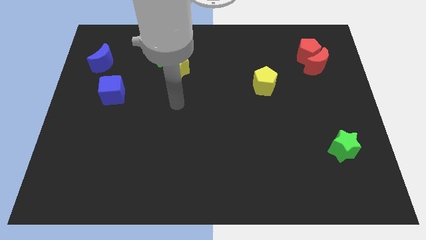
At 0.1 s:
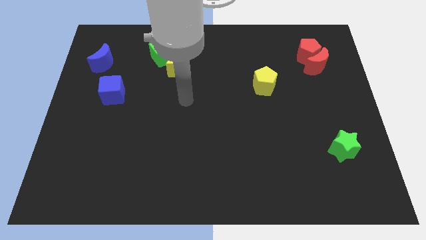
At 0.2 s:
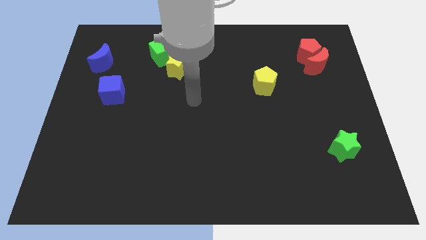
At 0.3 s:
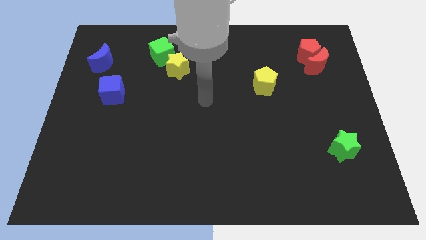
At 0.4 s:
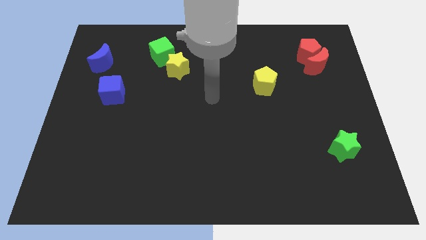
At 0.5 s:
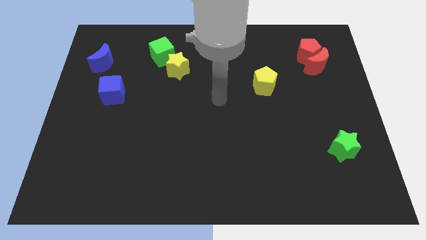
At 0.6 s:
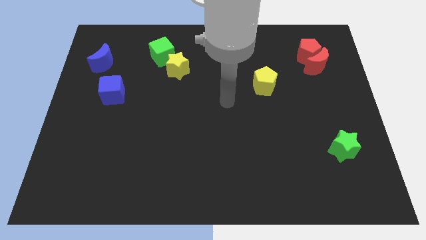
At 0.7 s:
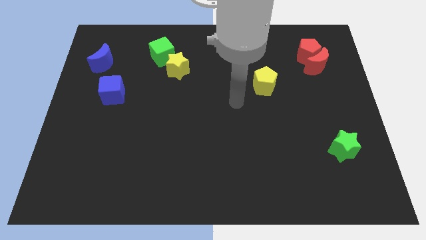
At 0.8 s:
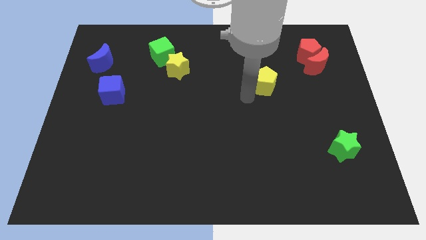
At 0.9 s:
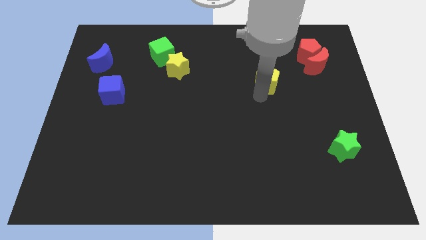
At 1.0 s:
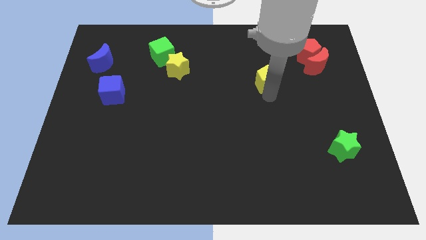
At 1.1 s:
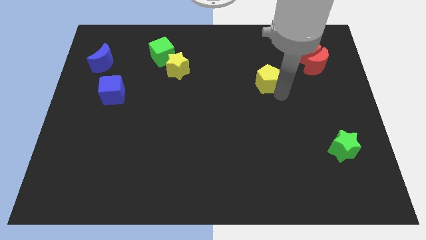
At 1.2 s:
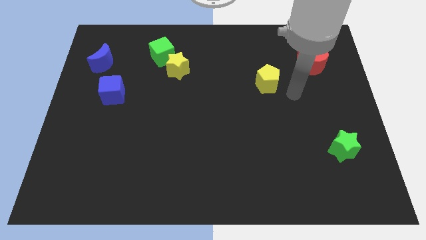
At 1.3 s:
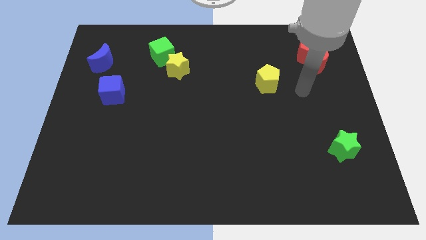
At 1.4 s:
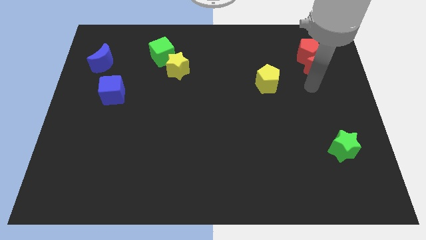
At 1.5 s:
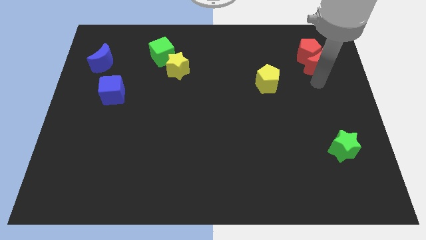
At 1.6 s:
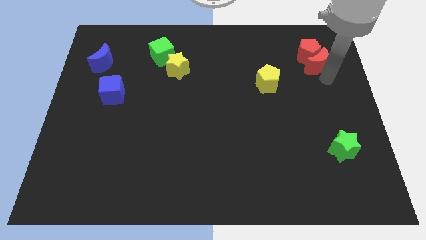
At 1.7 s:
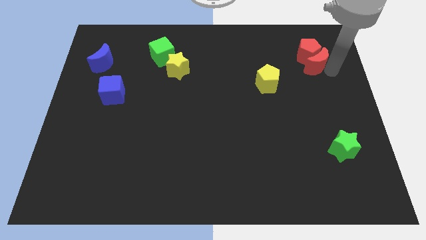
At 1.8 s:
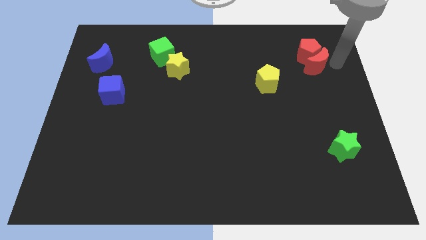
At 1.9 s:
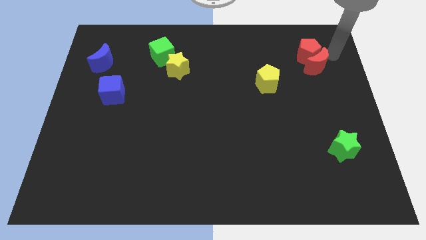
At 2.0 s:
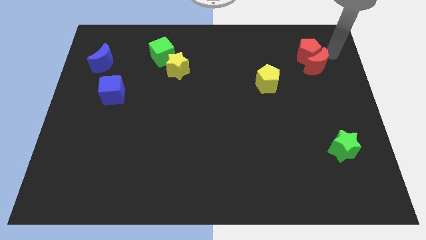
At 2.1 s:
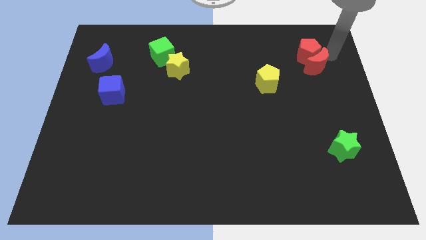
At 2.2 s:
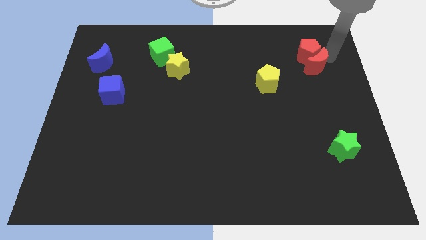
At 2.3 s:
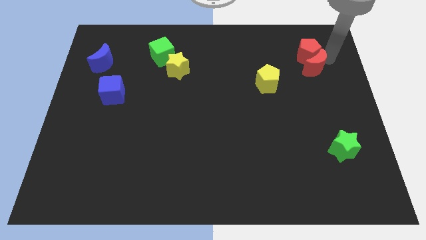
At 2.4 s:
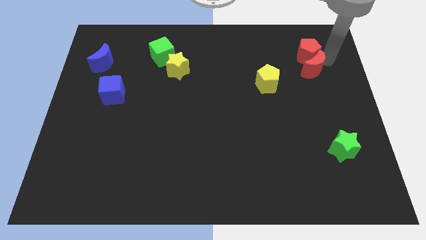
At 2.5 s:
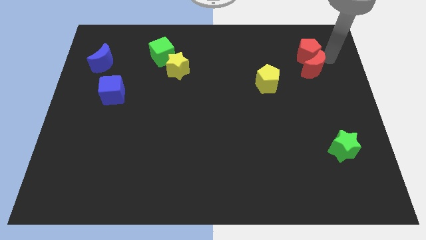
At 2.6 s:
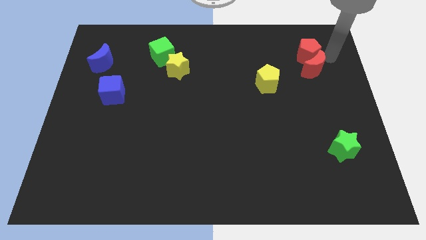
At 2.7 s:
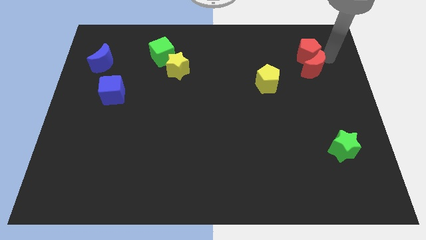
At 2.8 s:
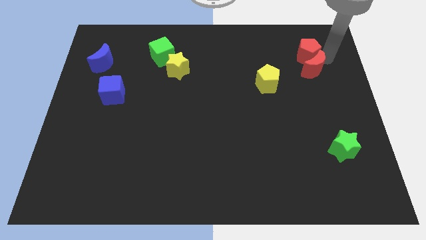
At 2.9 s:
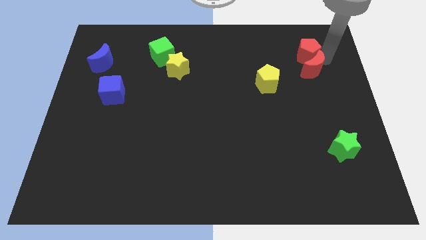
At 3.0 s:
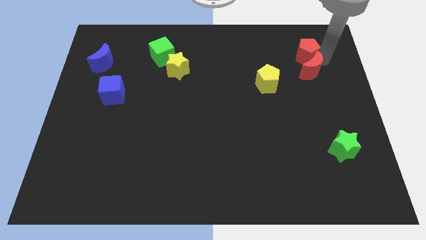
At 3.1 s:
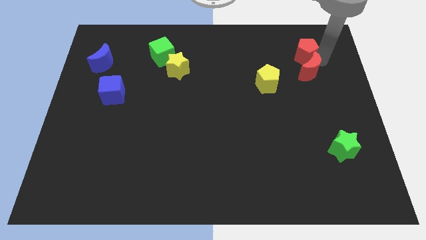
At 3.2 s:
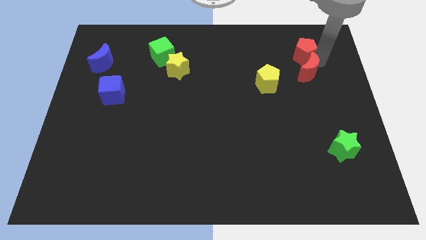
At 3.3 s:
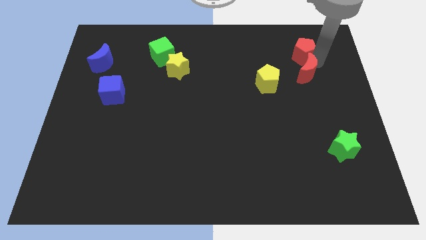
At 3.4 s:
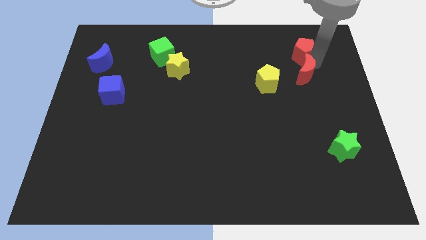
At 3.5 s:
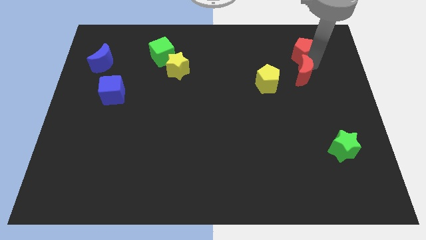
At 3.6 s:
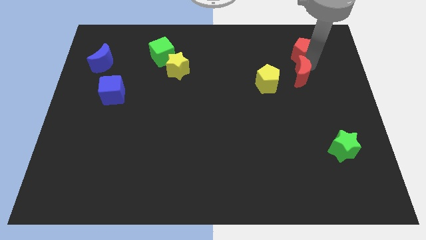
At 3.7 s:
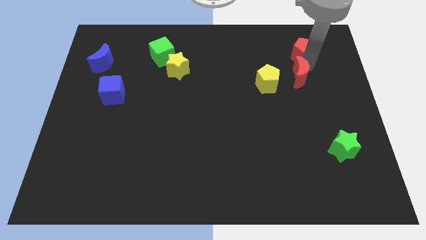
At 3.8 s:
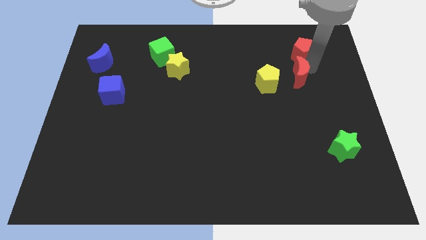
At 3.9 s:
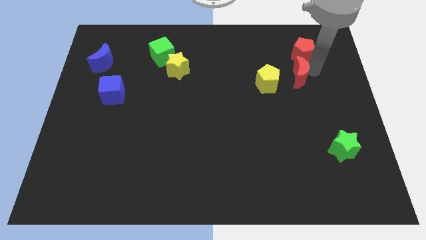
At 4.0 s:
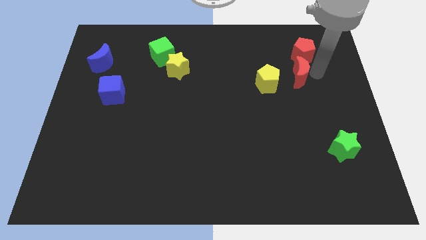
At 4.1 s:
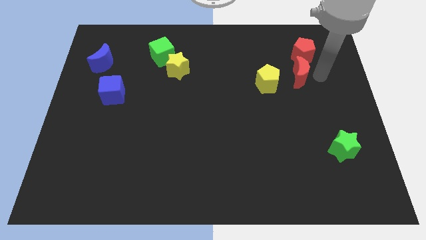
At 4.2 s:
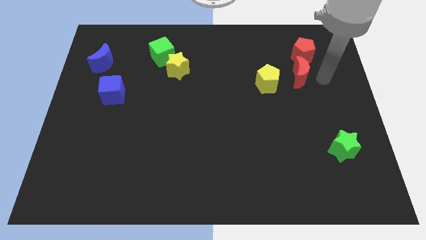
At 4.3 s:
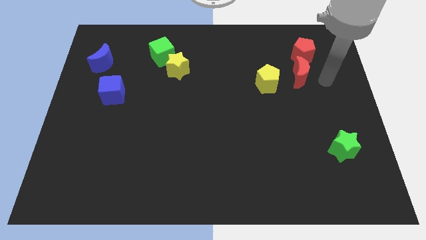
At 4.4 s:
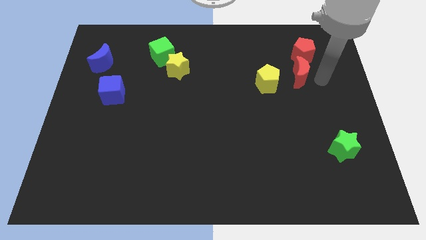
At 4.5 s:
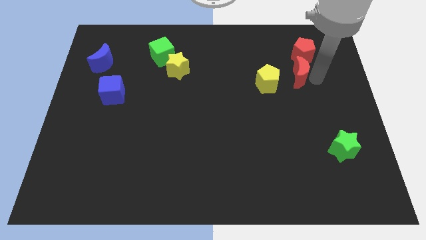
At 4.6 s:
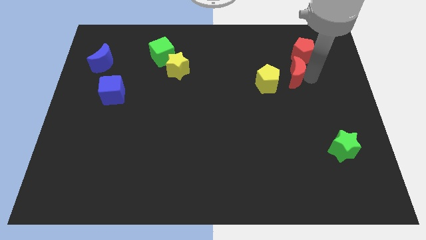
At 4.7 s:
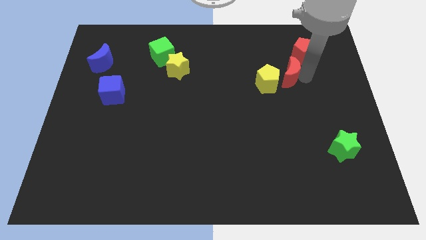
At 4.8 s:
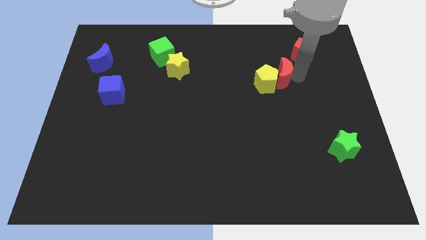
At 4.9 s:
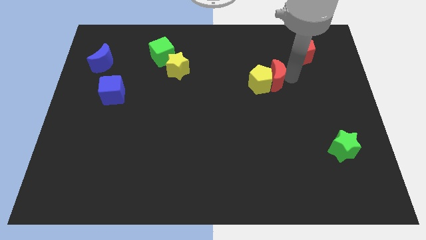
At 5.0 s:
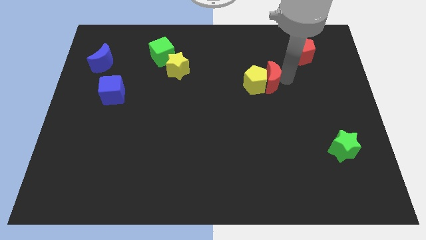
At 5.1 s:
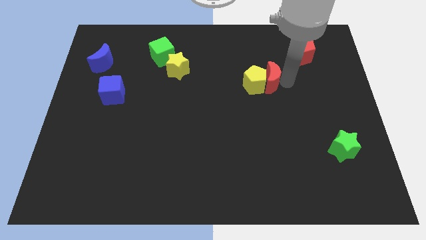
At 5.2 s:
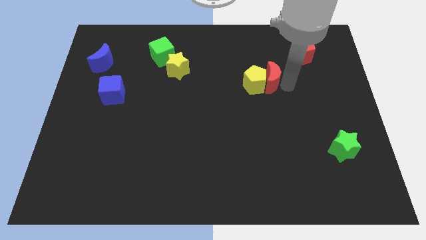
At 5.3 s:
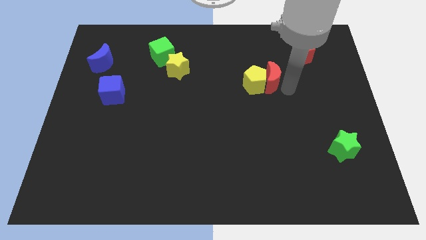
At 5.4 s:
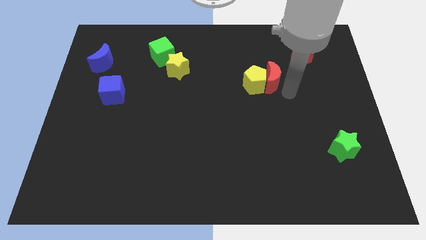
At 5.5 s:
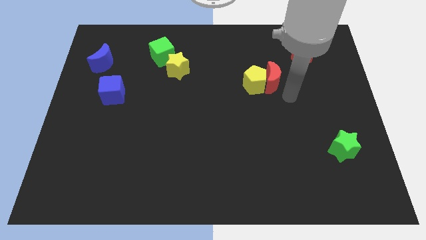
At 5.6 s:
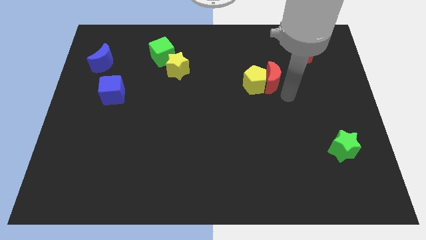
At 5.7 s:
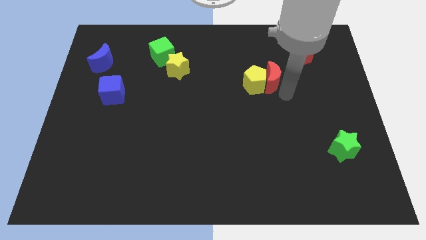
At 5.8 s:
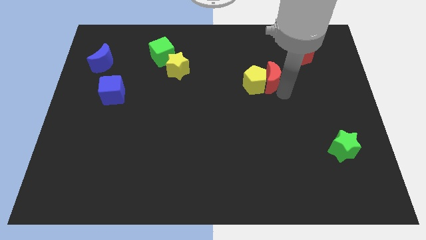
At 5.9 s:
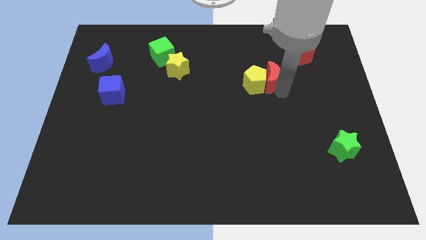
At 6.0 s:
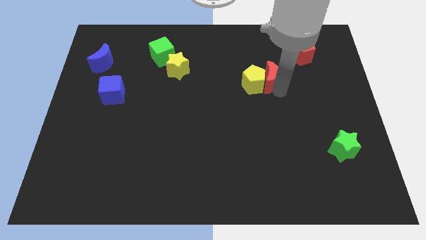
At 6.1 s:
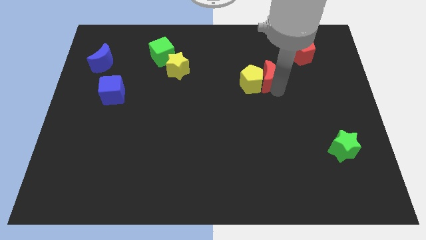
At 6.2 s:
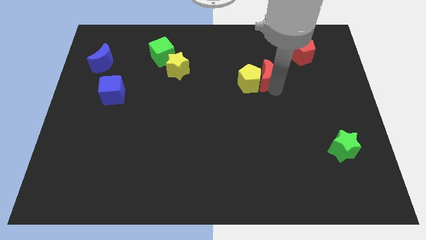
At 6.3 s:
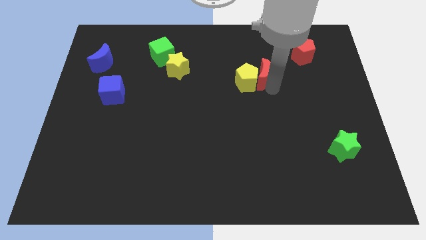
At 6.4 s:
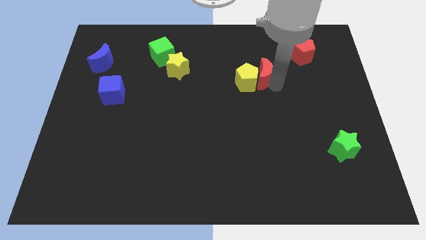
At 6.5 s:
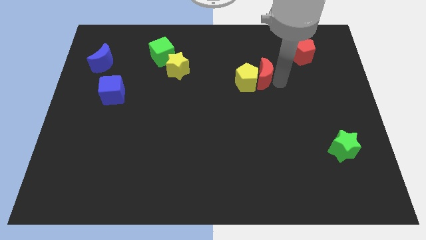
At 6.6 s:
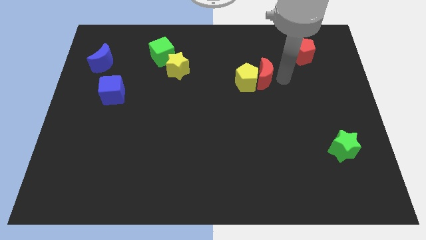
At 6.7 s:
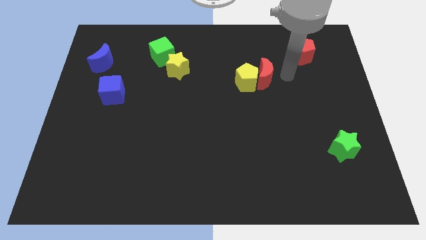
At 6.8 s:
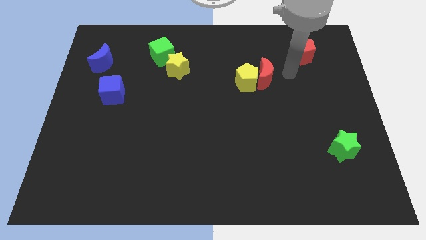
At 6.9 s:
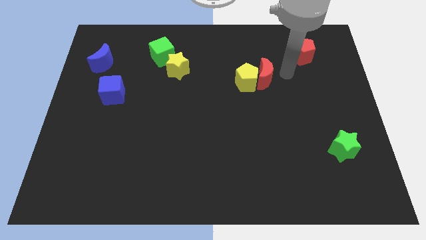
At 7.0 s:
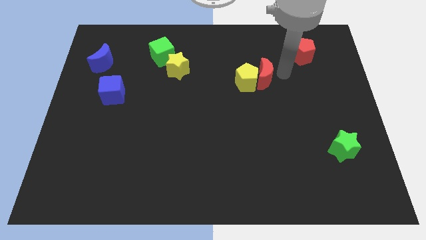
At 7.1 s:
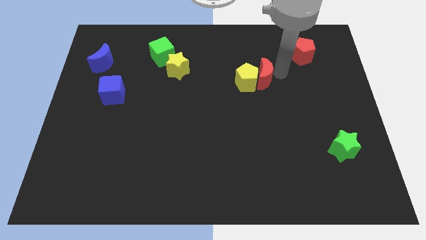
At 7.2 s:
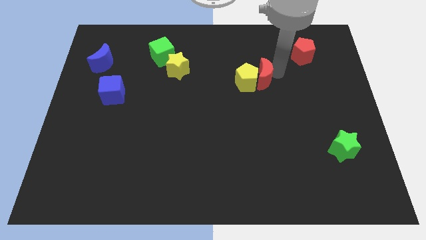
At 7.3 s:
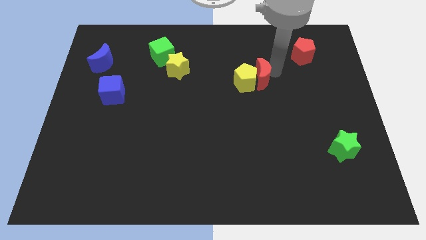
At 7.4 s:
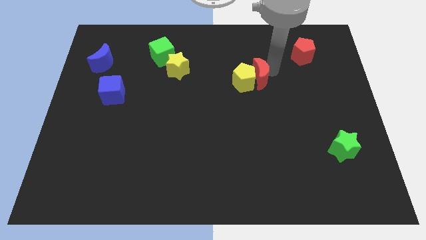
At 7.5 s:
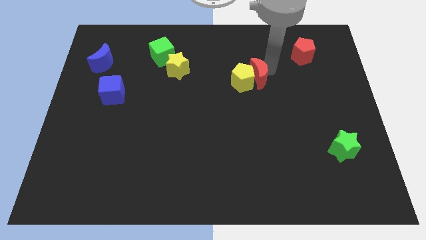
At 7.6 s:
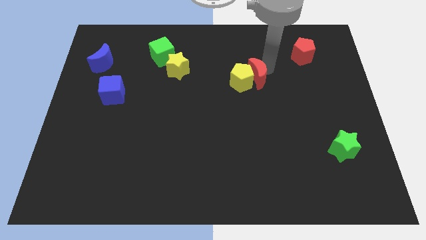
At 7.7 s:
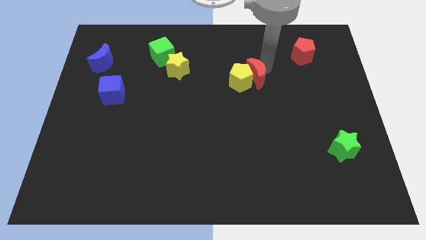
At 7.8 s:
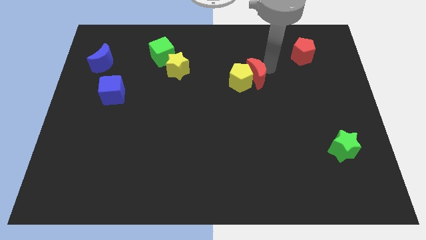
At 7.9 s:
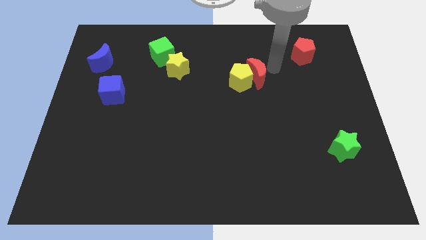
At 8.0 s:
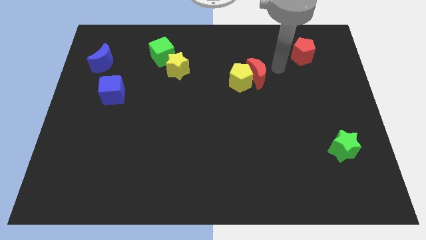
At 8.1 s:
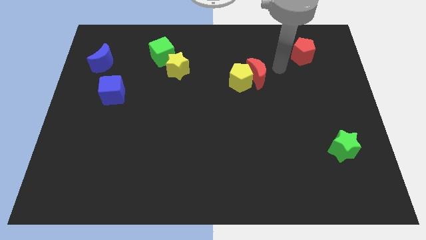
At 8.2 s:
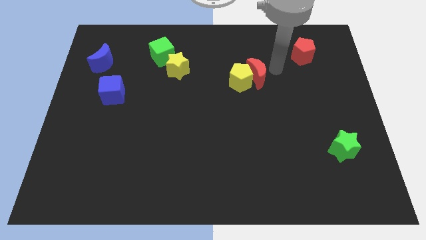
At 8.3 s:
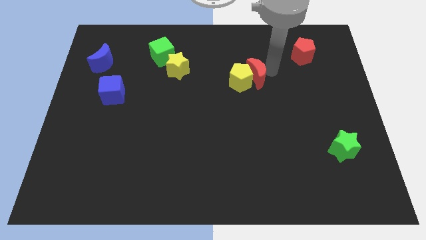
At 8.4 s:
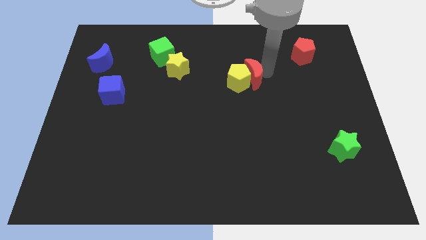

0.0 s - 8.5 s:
move the red moon to the middle
